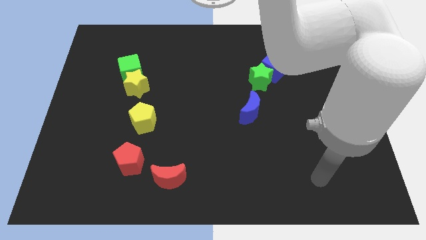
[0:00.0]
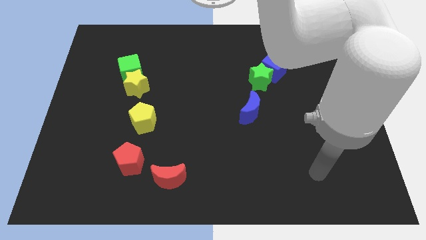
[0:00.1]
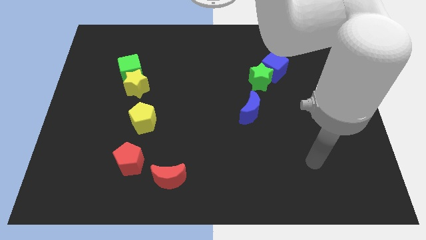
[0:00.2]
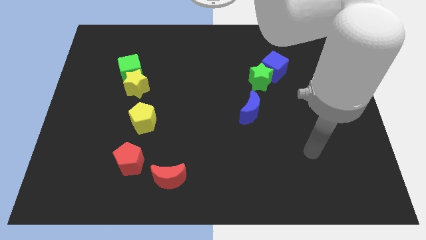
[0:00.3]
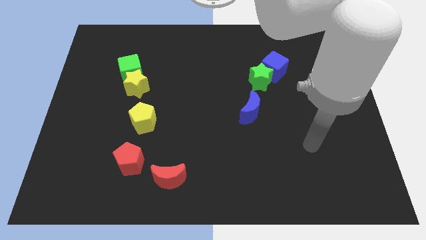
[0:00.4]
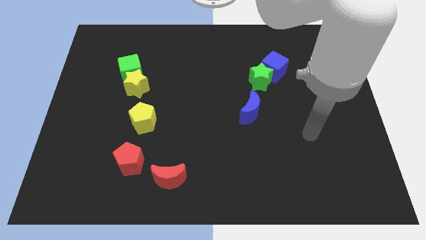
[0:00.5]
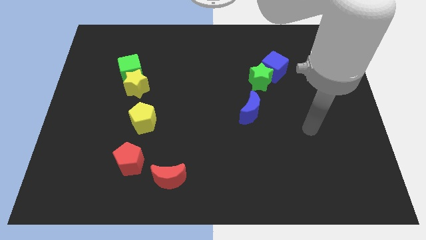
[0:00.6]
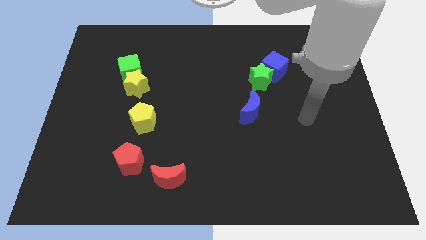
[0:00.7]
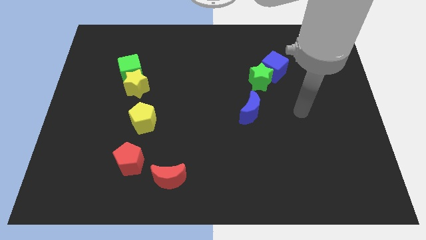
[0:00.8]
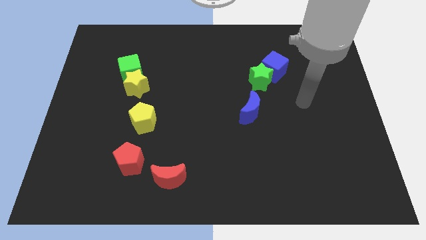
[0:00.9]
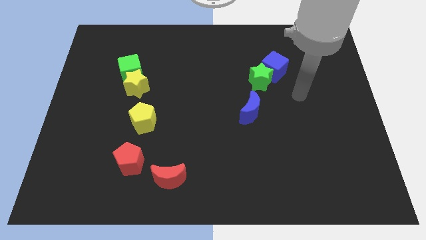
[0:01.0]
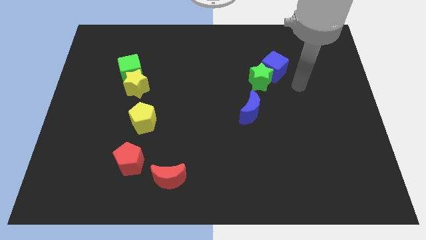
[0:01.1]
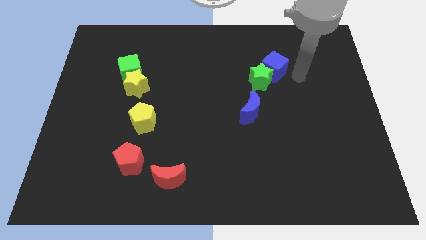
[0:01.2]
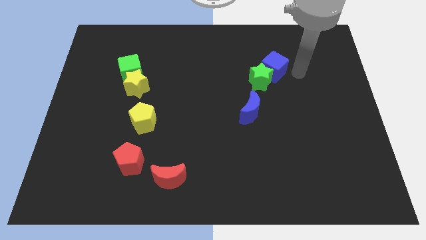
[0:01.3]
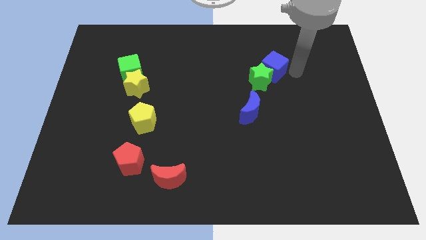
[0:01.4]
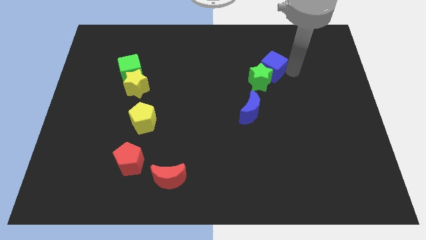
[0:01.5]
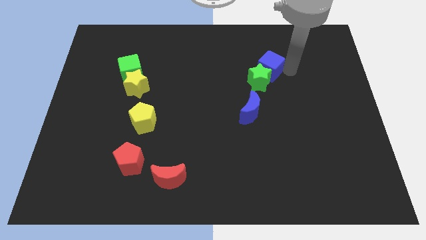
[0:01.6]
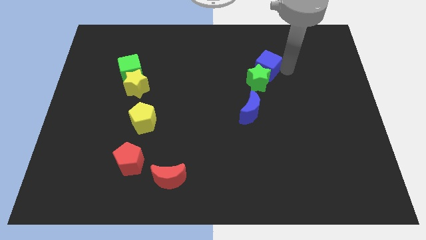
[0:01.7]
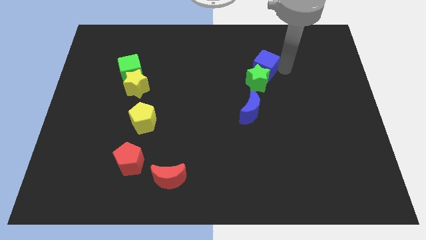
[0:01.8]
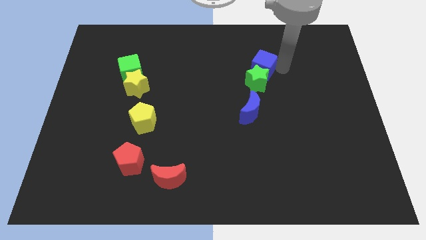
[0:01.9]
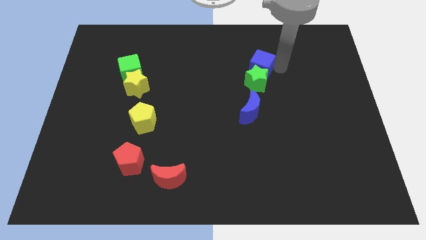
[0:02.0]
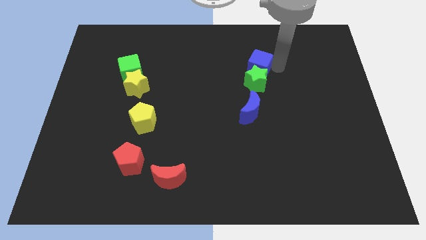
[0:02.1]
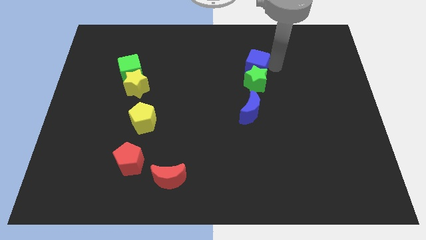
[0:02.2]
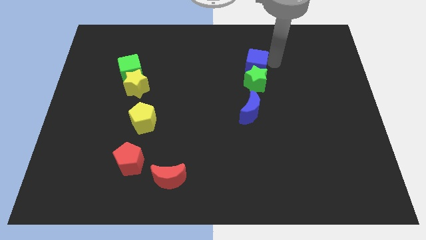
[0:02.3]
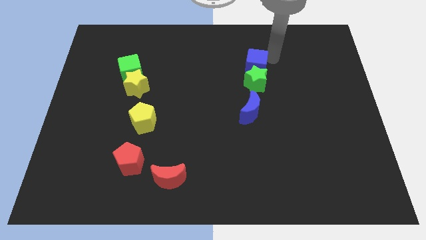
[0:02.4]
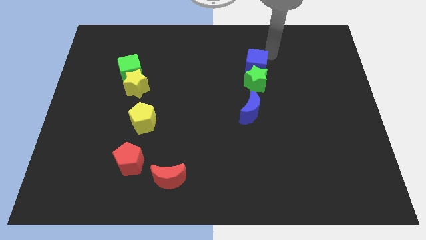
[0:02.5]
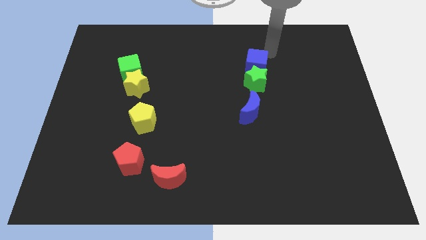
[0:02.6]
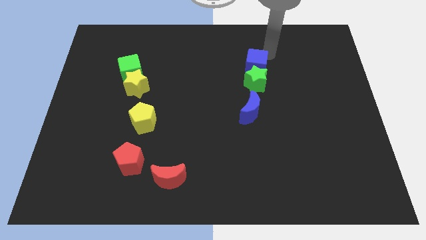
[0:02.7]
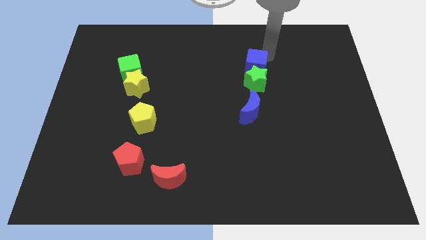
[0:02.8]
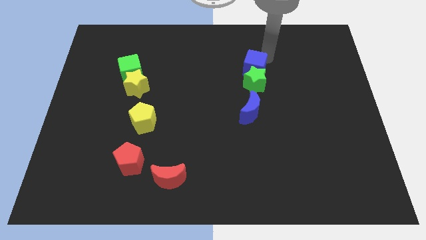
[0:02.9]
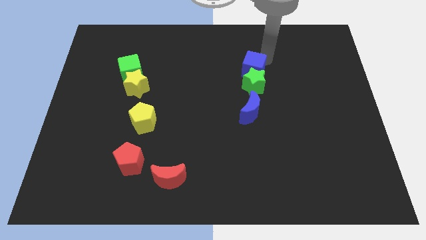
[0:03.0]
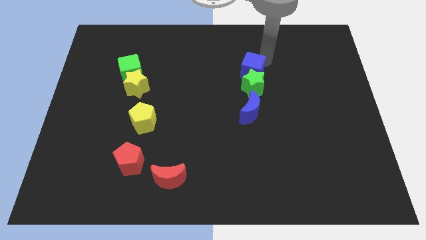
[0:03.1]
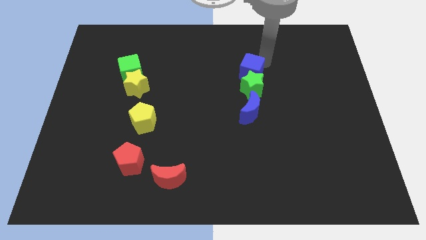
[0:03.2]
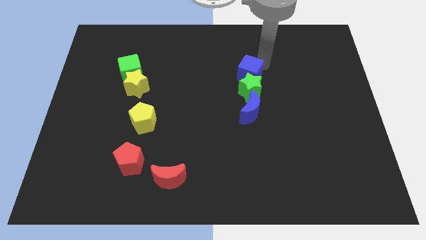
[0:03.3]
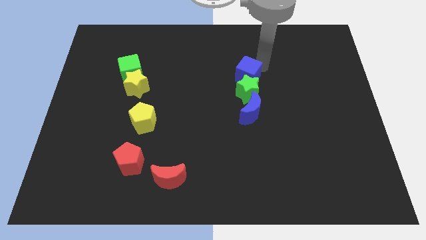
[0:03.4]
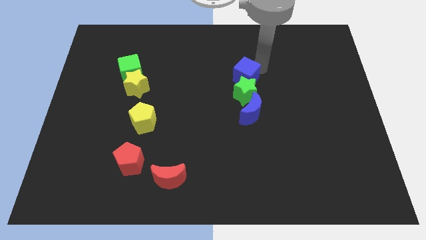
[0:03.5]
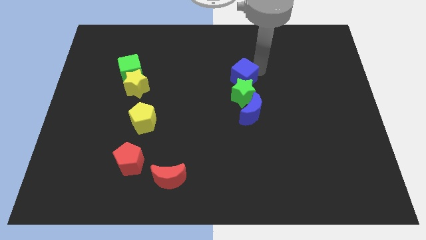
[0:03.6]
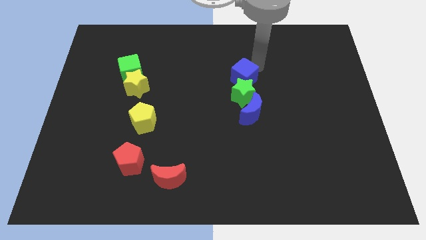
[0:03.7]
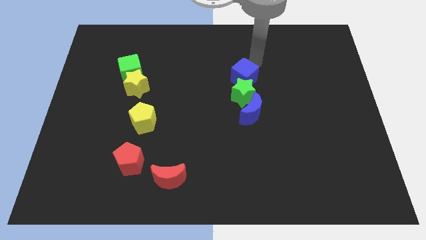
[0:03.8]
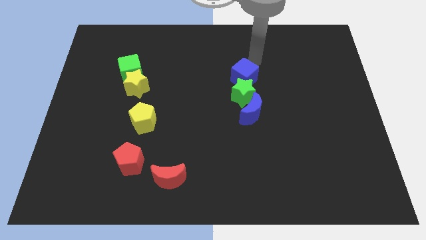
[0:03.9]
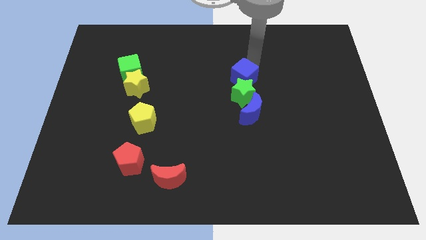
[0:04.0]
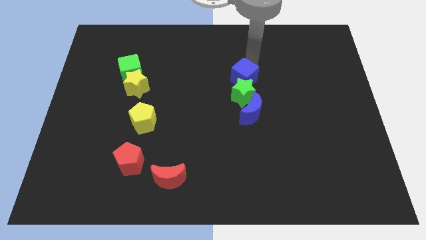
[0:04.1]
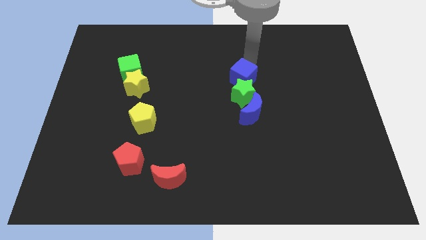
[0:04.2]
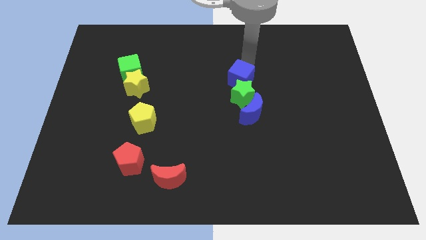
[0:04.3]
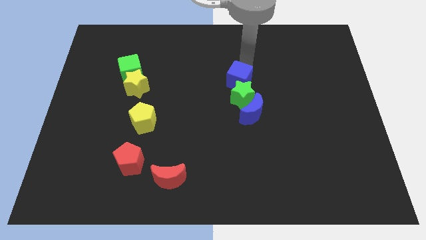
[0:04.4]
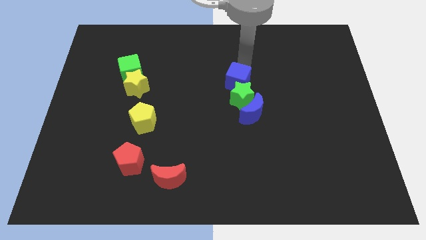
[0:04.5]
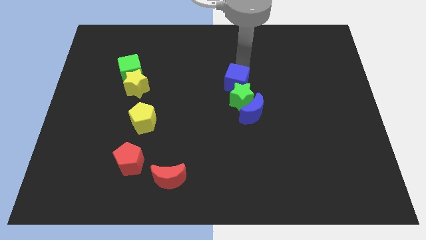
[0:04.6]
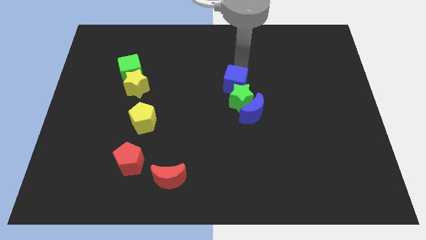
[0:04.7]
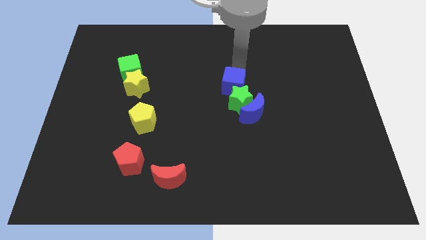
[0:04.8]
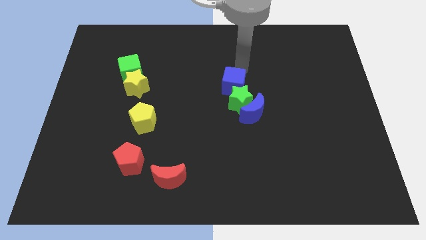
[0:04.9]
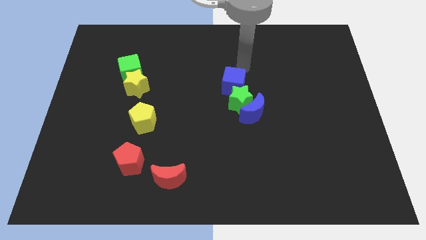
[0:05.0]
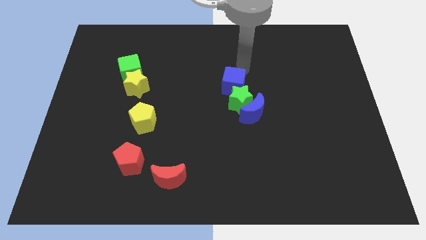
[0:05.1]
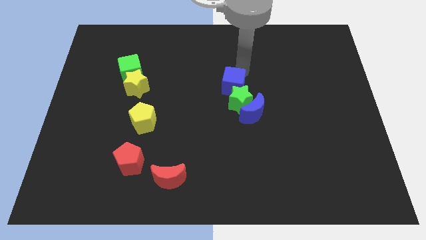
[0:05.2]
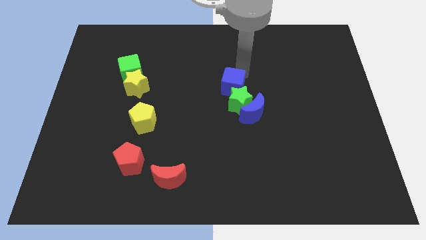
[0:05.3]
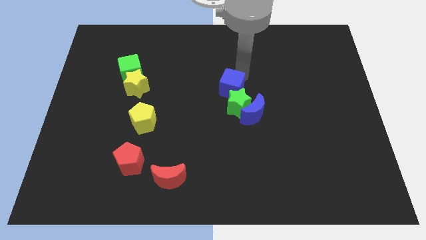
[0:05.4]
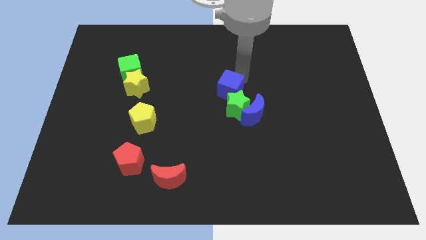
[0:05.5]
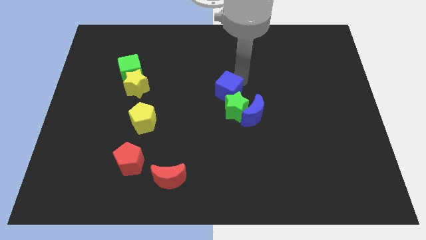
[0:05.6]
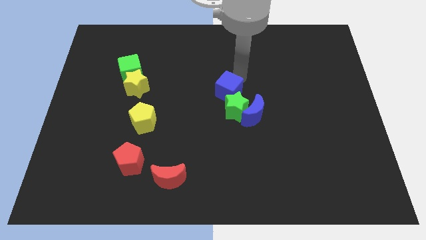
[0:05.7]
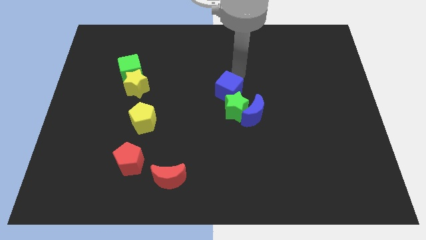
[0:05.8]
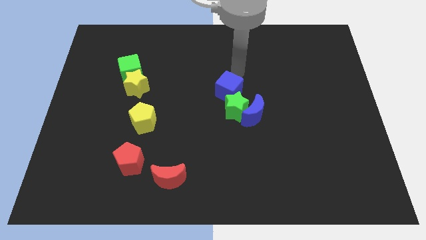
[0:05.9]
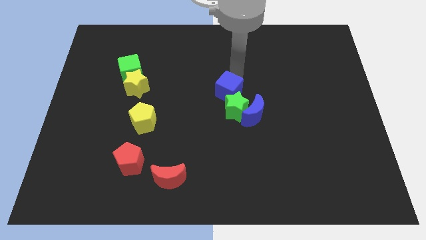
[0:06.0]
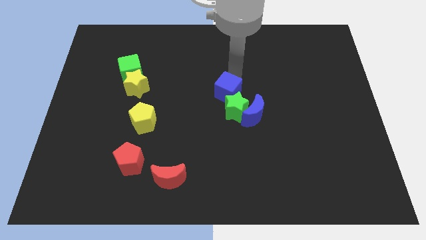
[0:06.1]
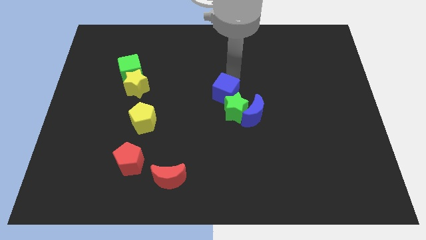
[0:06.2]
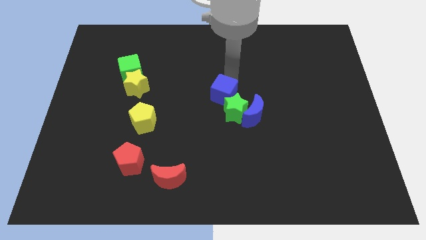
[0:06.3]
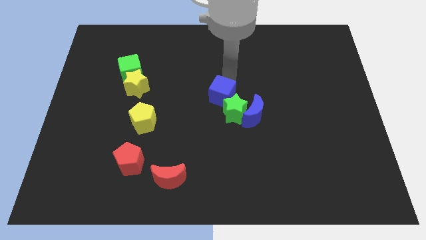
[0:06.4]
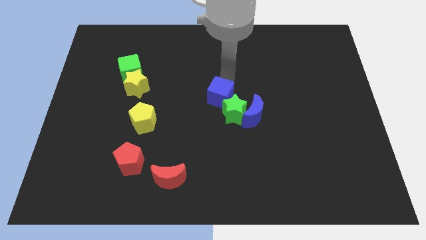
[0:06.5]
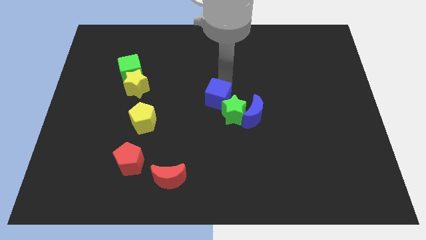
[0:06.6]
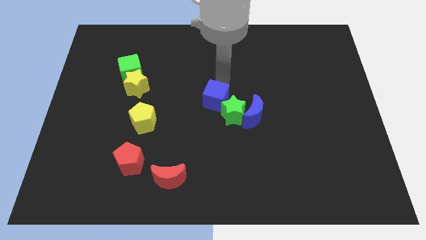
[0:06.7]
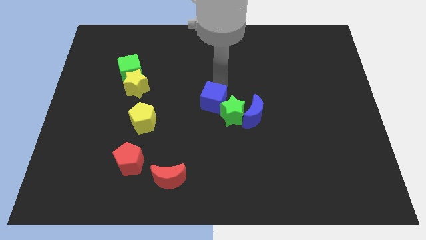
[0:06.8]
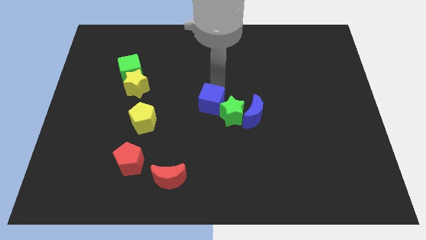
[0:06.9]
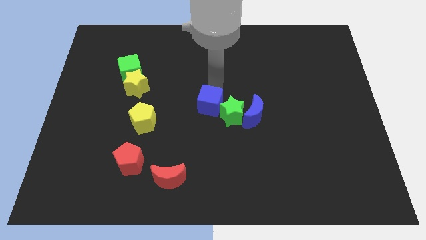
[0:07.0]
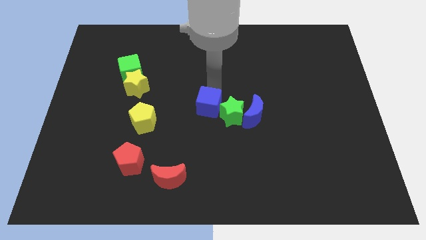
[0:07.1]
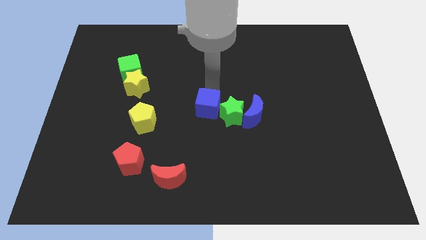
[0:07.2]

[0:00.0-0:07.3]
slide the blue cube diagonally downwards and left

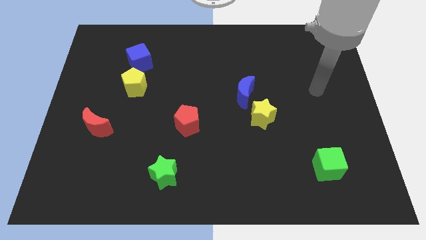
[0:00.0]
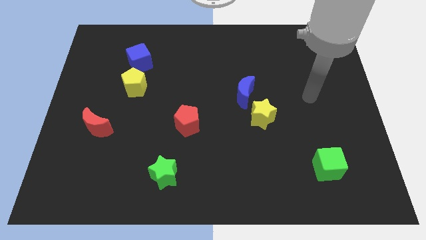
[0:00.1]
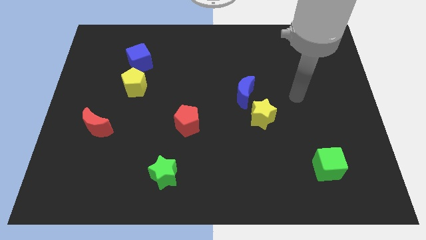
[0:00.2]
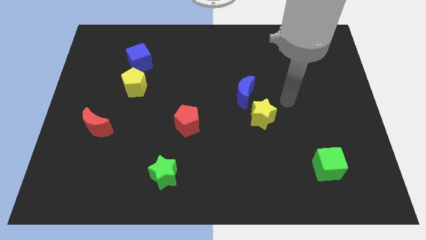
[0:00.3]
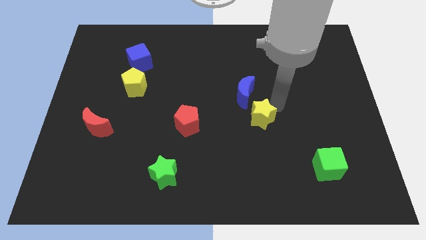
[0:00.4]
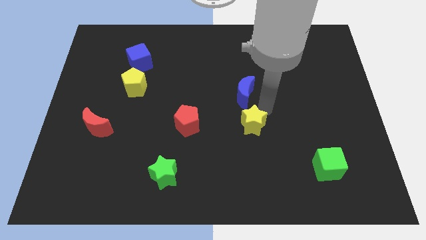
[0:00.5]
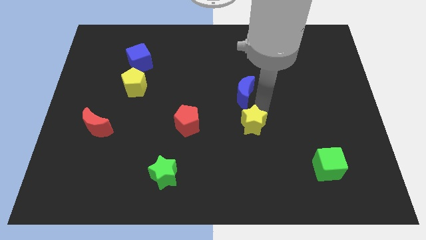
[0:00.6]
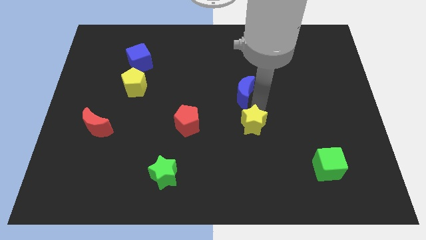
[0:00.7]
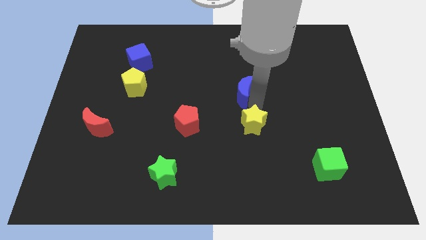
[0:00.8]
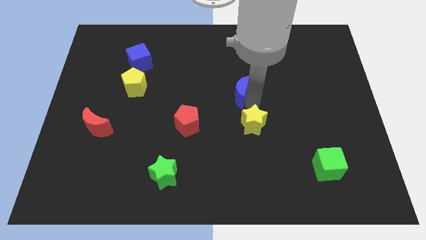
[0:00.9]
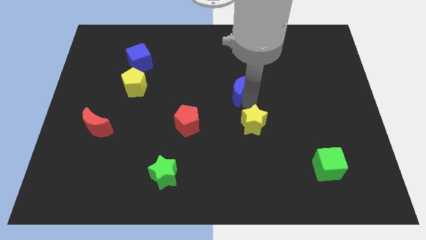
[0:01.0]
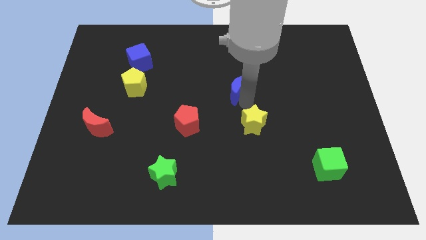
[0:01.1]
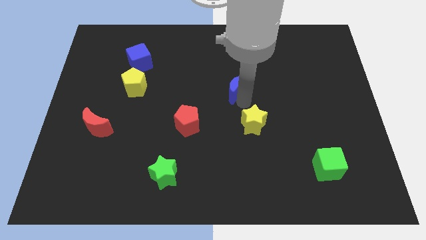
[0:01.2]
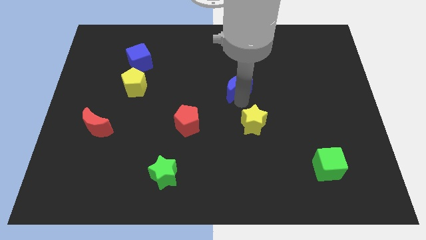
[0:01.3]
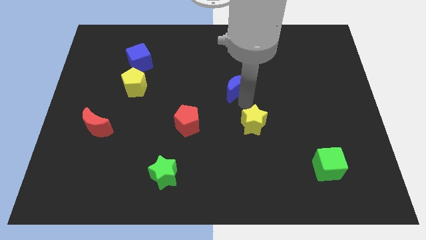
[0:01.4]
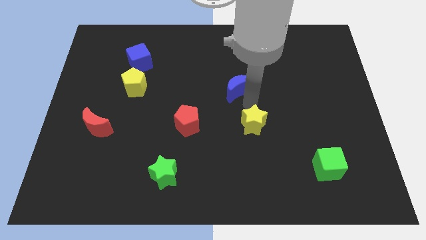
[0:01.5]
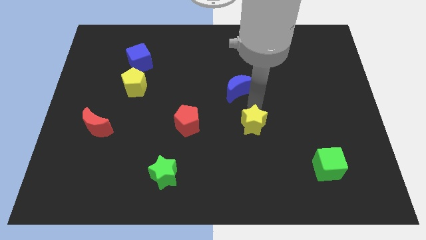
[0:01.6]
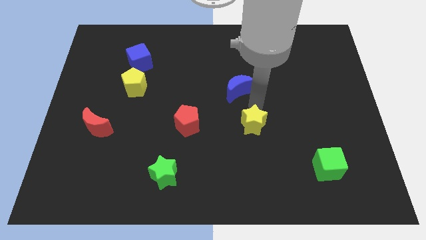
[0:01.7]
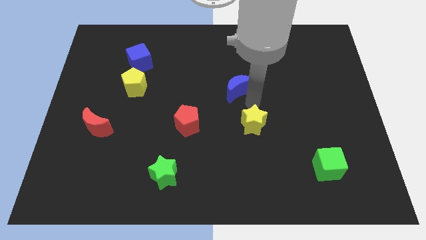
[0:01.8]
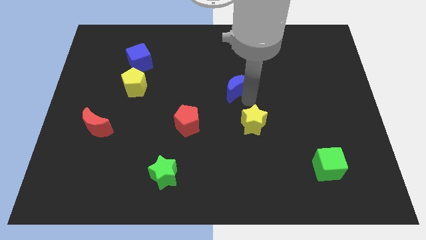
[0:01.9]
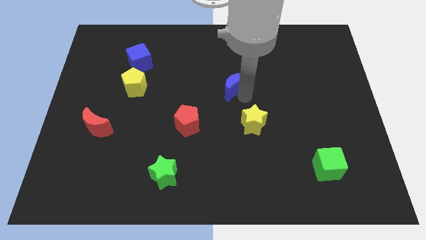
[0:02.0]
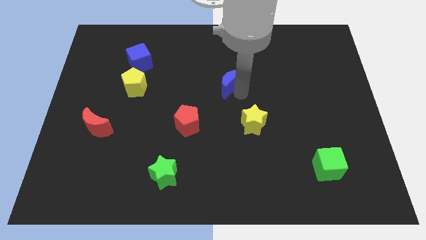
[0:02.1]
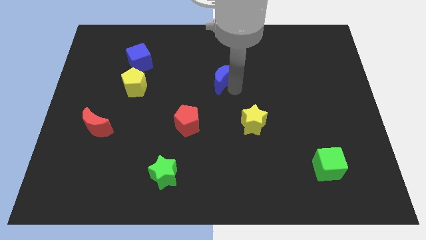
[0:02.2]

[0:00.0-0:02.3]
slightly move the blue moon upwards and left
